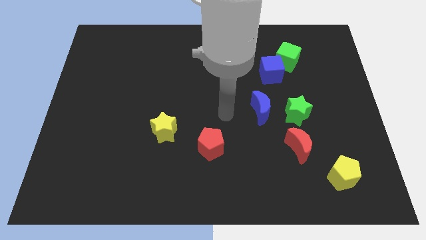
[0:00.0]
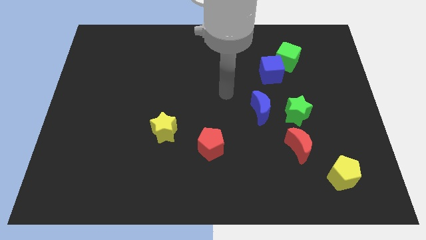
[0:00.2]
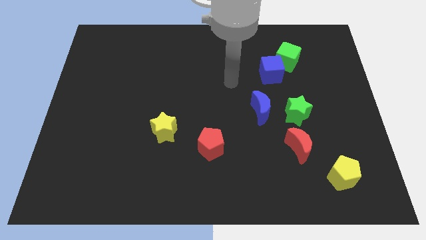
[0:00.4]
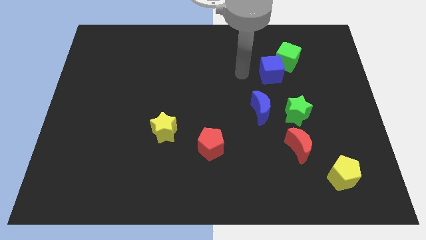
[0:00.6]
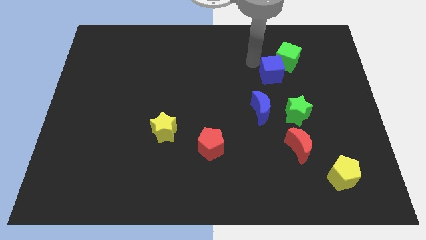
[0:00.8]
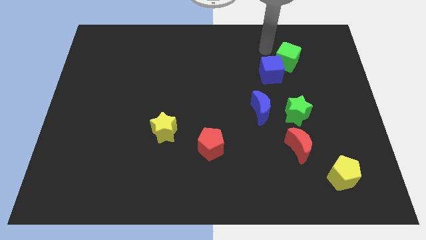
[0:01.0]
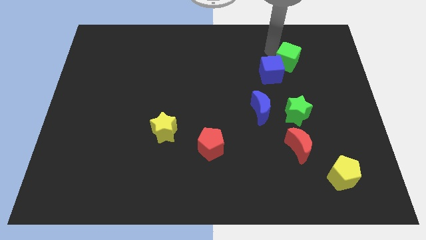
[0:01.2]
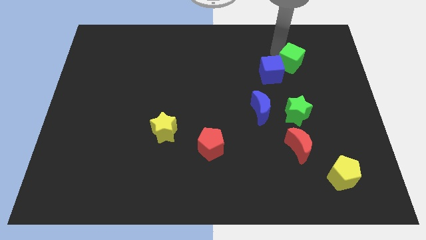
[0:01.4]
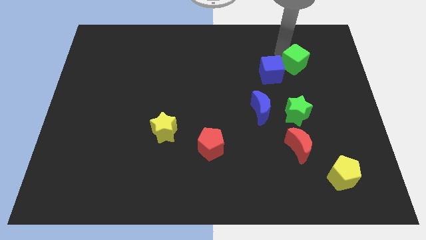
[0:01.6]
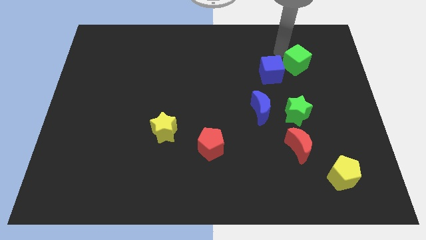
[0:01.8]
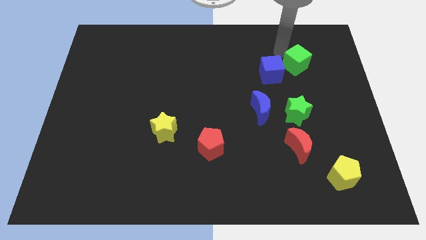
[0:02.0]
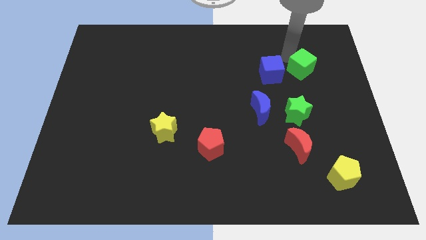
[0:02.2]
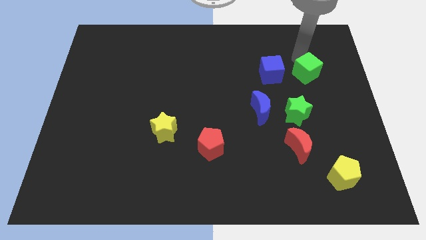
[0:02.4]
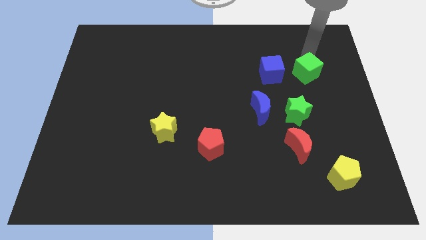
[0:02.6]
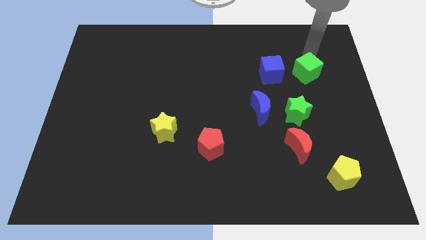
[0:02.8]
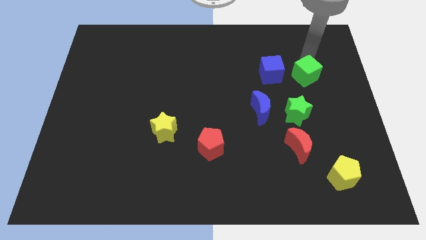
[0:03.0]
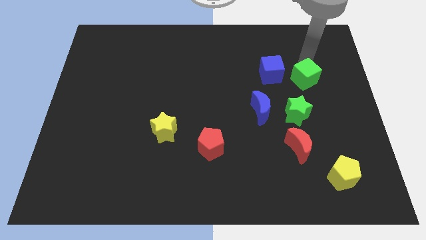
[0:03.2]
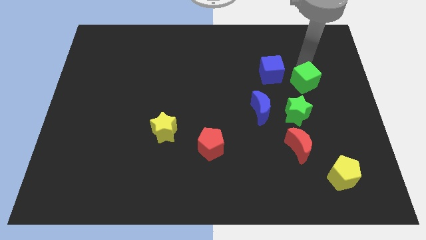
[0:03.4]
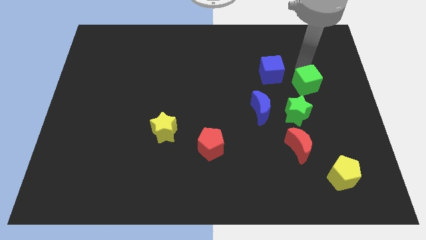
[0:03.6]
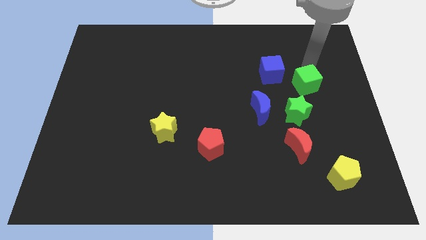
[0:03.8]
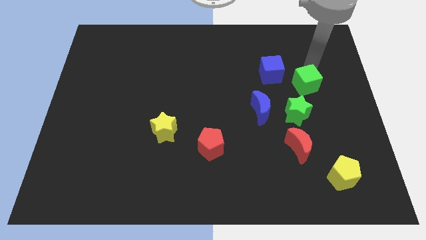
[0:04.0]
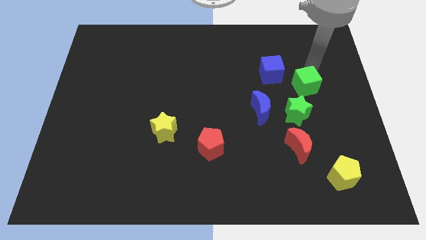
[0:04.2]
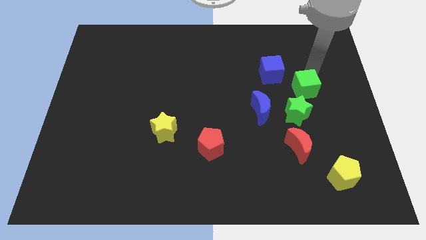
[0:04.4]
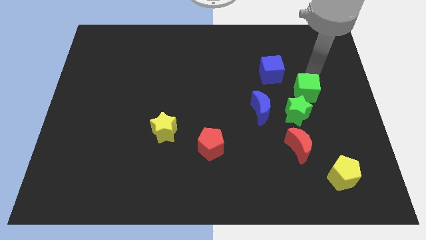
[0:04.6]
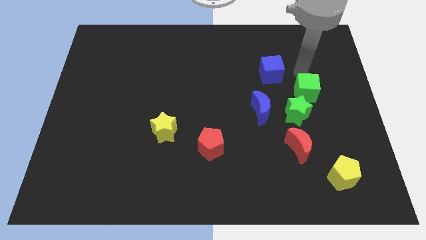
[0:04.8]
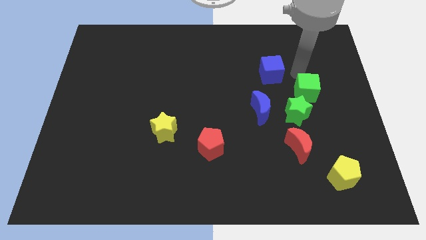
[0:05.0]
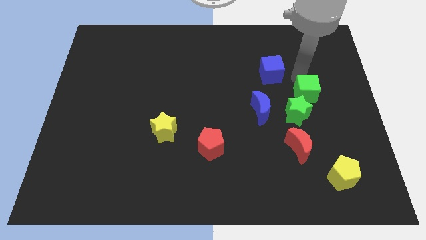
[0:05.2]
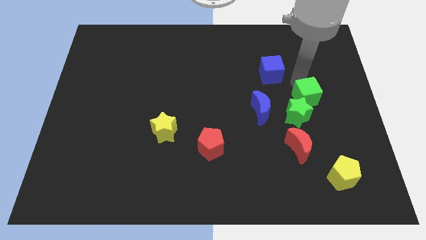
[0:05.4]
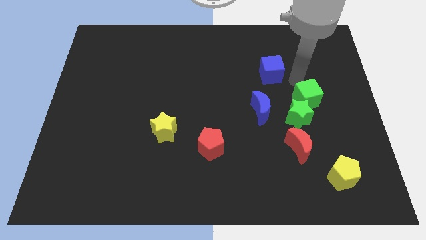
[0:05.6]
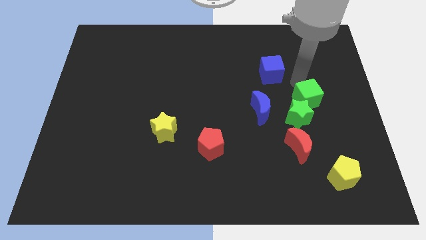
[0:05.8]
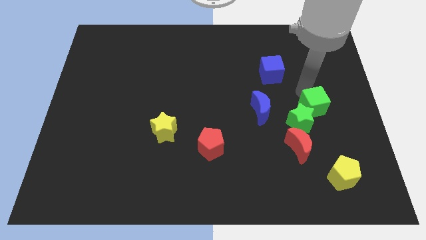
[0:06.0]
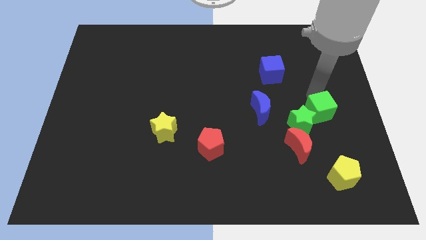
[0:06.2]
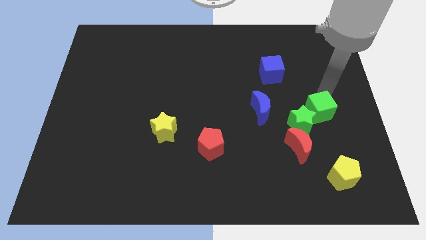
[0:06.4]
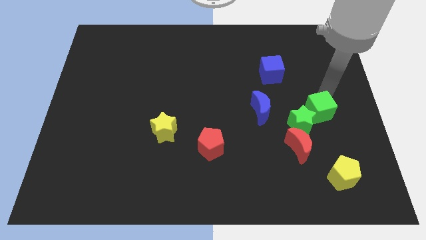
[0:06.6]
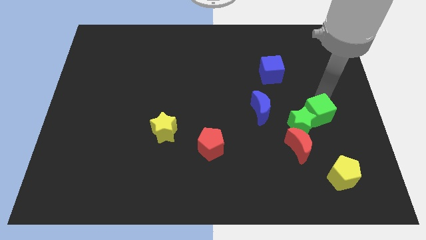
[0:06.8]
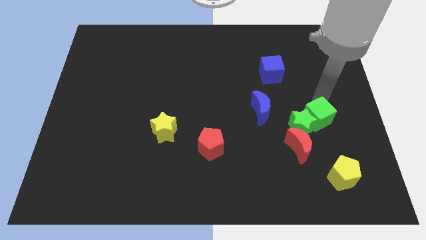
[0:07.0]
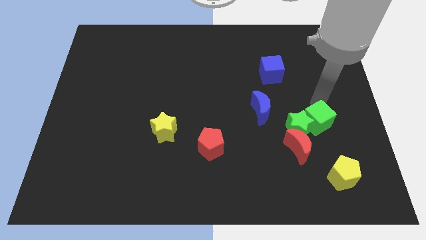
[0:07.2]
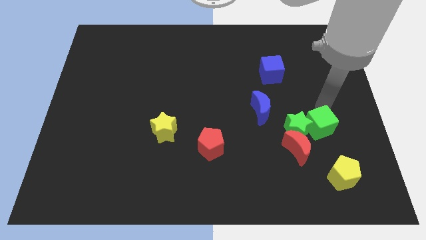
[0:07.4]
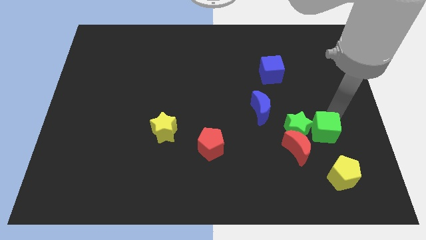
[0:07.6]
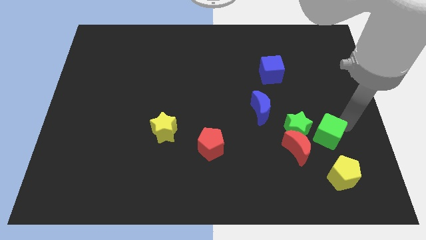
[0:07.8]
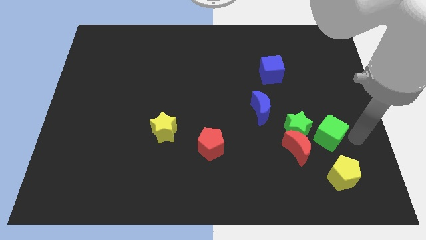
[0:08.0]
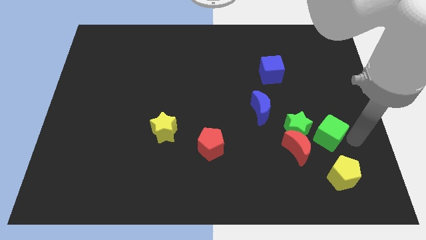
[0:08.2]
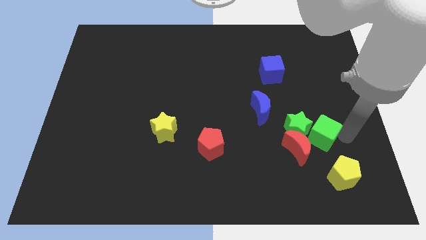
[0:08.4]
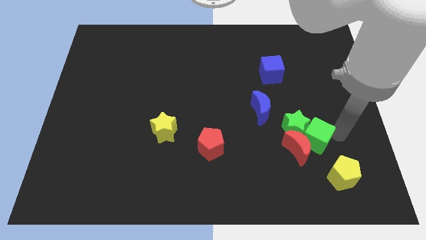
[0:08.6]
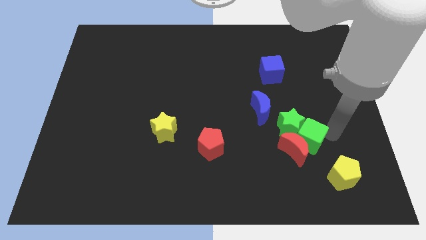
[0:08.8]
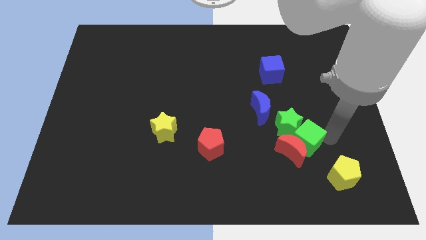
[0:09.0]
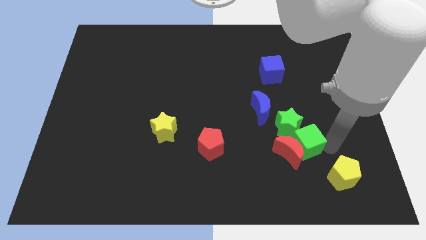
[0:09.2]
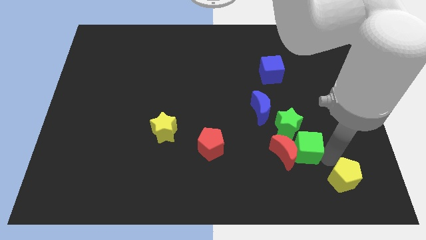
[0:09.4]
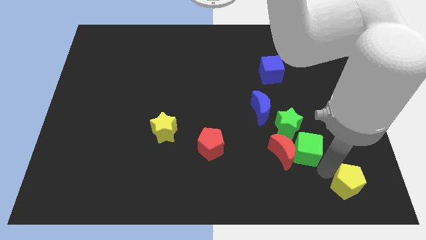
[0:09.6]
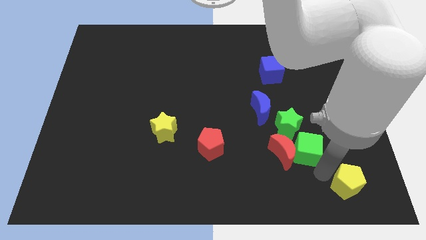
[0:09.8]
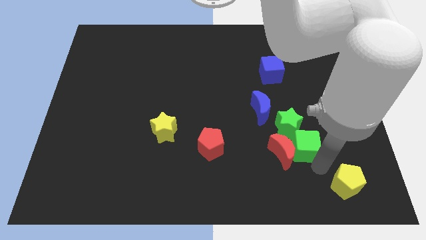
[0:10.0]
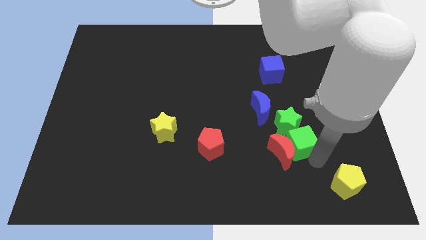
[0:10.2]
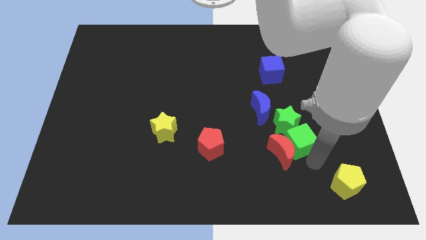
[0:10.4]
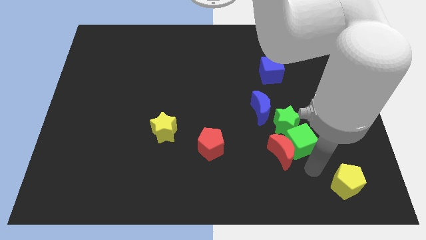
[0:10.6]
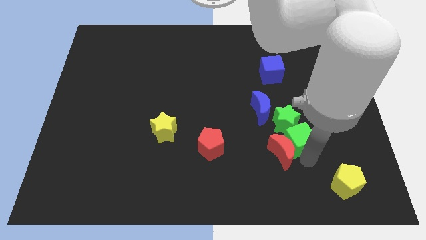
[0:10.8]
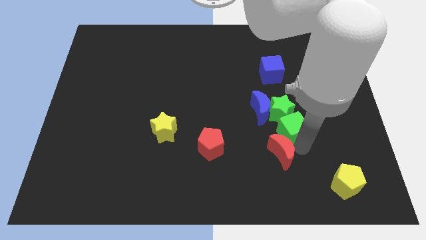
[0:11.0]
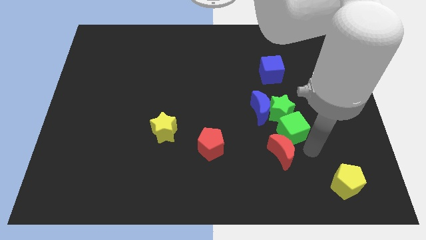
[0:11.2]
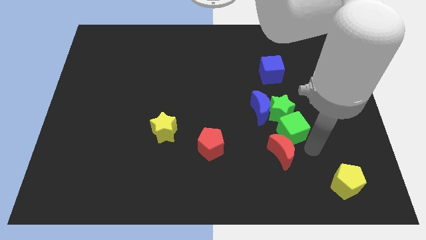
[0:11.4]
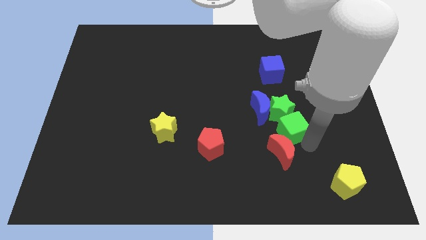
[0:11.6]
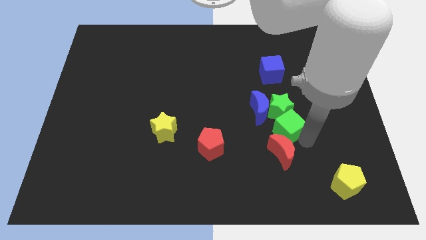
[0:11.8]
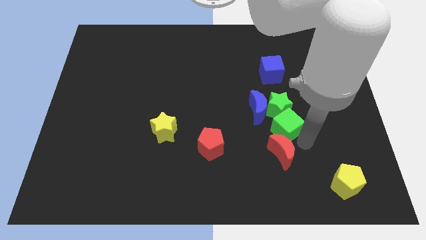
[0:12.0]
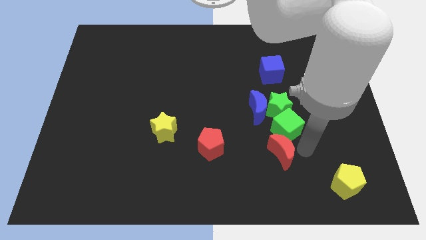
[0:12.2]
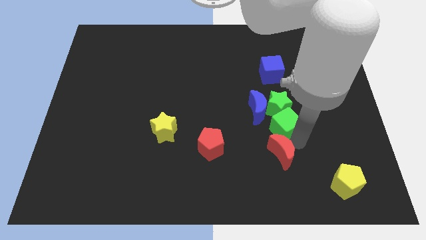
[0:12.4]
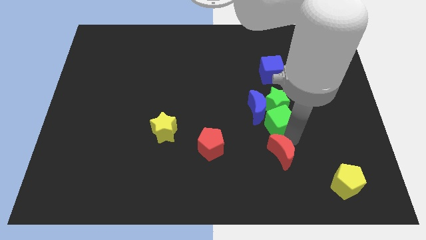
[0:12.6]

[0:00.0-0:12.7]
push the green cube to the bottom side of the blue cube

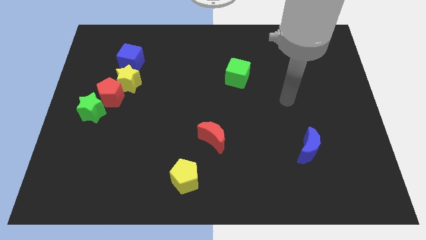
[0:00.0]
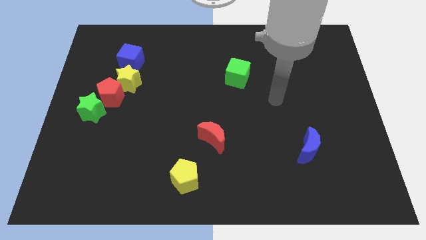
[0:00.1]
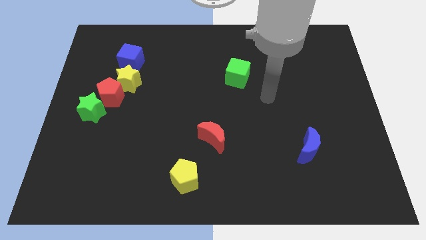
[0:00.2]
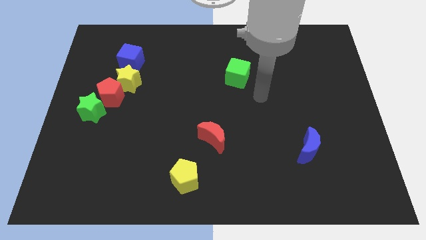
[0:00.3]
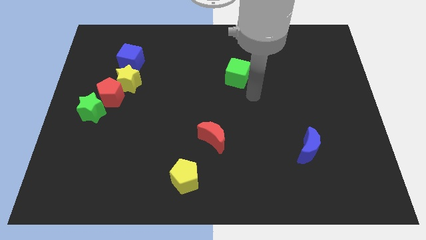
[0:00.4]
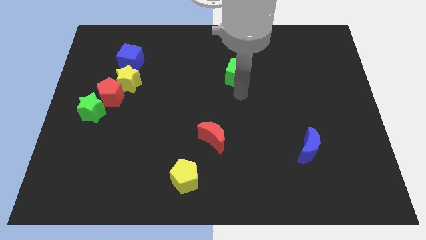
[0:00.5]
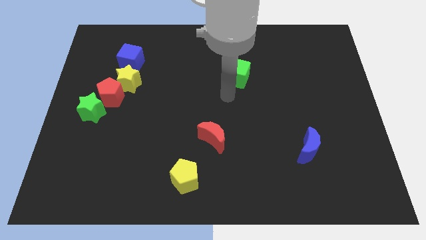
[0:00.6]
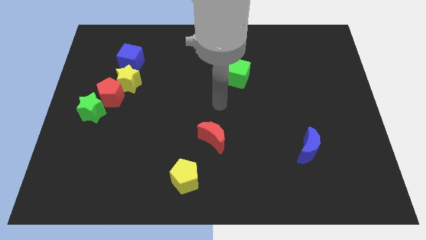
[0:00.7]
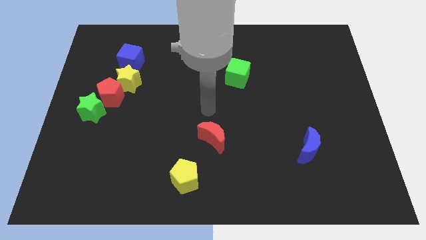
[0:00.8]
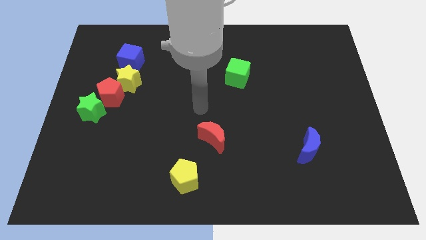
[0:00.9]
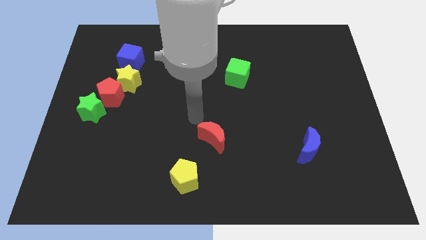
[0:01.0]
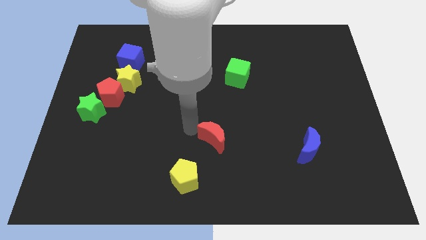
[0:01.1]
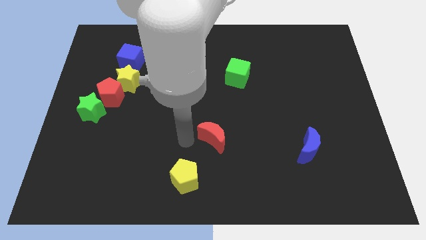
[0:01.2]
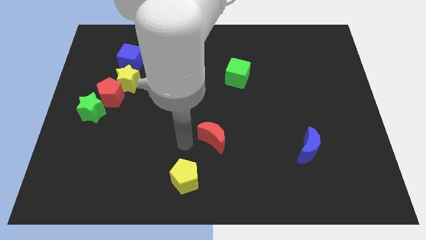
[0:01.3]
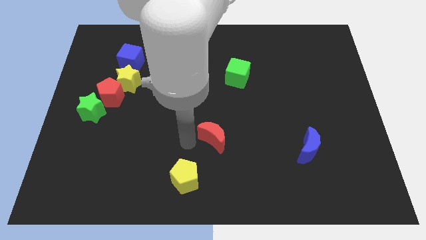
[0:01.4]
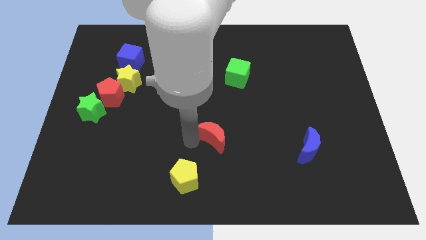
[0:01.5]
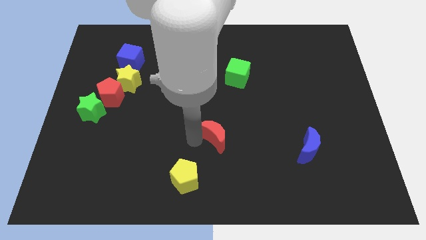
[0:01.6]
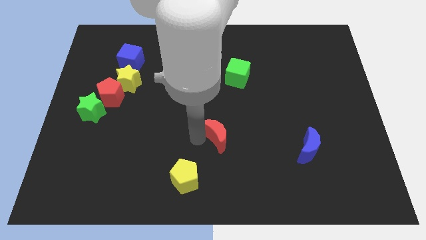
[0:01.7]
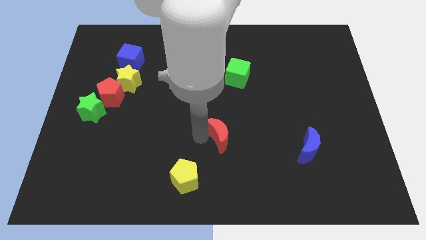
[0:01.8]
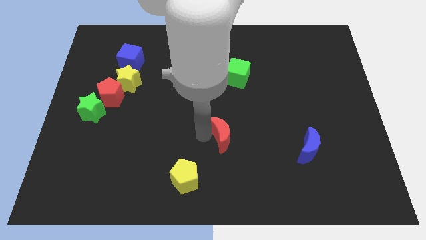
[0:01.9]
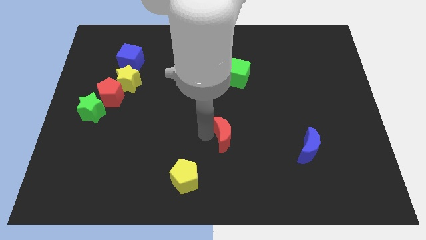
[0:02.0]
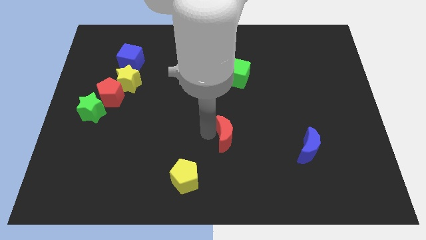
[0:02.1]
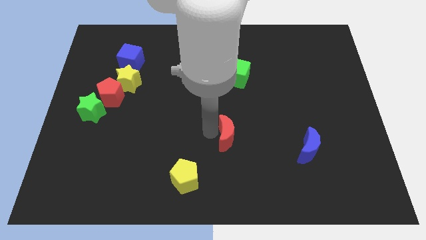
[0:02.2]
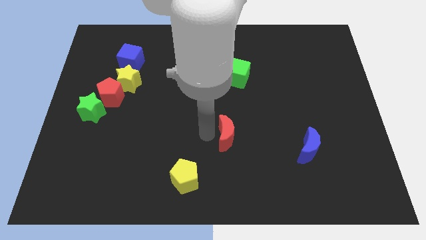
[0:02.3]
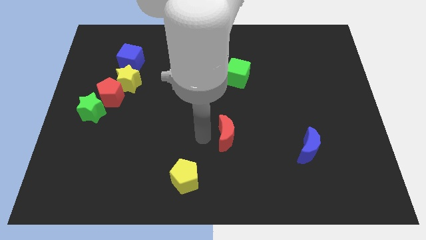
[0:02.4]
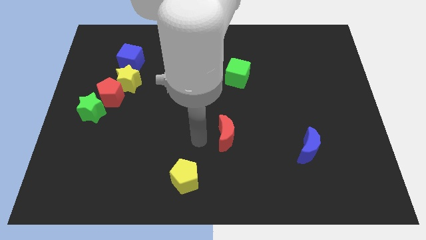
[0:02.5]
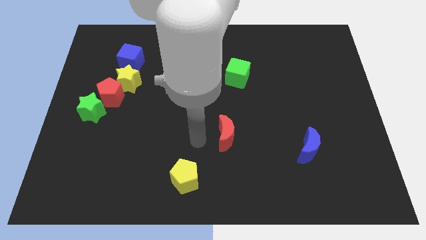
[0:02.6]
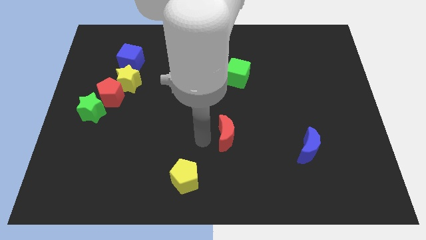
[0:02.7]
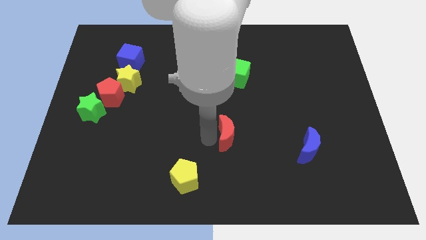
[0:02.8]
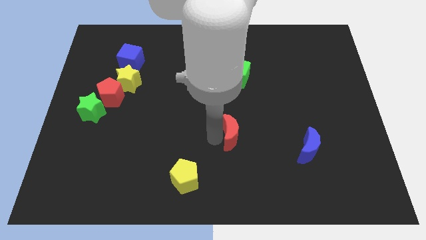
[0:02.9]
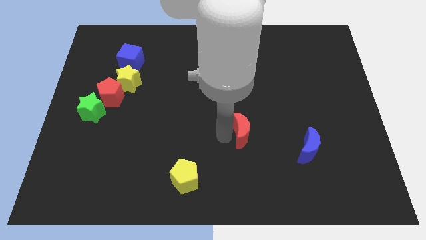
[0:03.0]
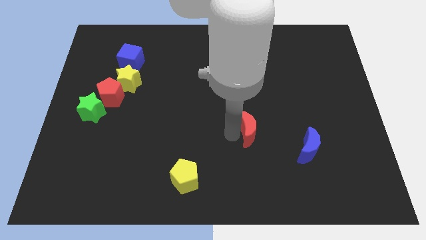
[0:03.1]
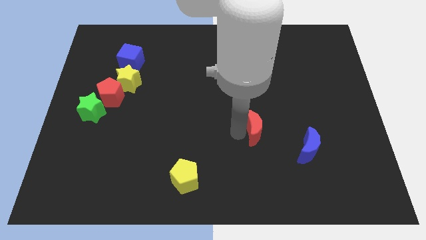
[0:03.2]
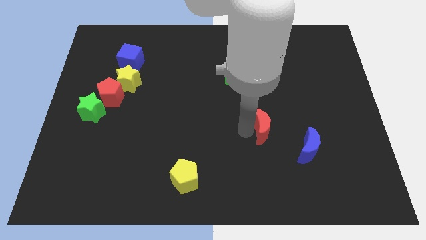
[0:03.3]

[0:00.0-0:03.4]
move the red moon to the top left of the blue moon
